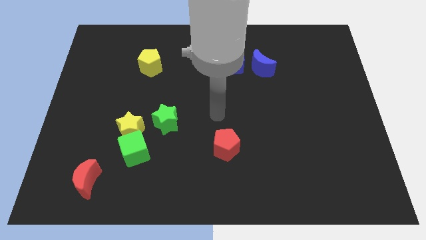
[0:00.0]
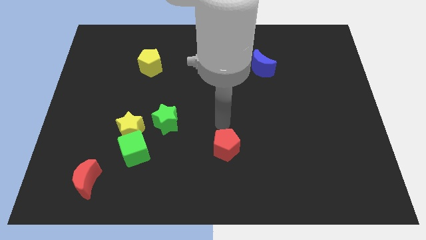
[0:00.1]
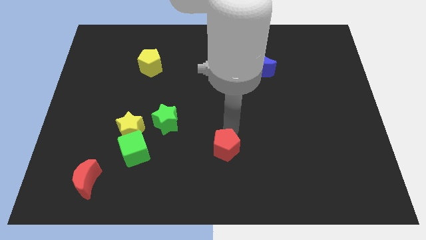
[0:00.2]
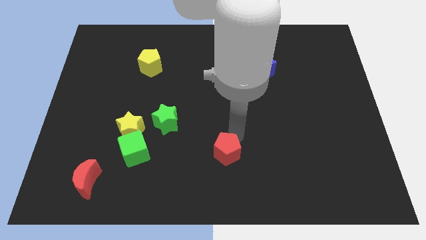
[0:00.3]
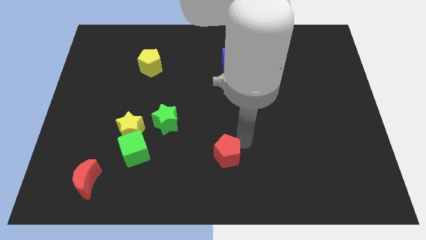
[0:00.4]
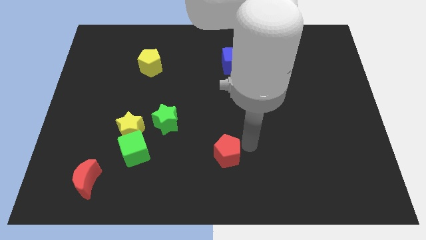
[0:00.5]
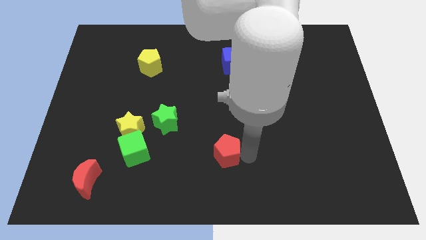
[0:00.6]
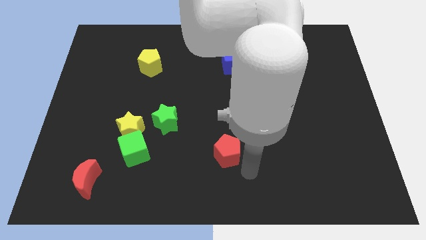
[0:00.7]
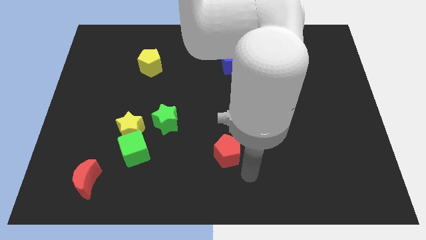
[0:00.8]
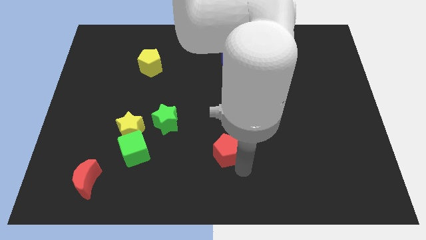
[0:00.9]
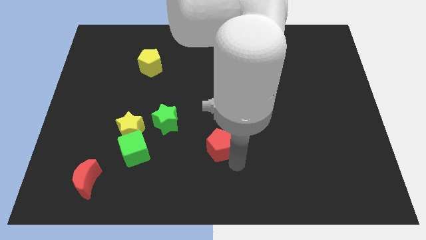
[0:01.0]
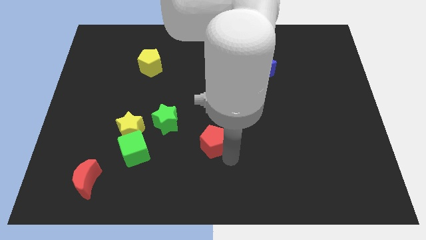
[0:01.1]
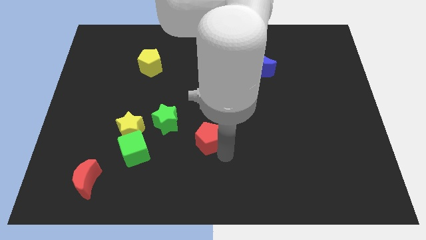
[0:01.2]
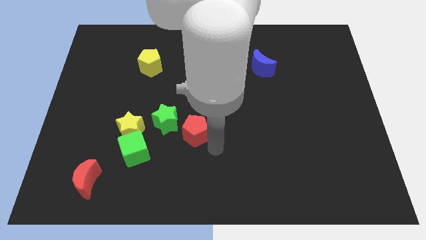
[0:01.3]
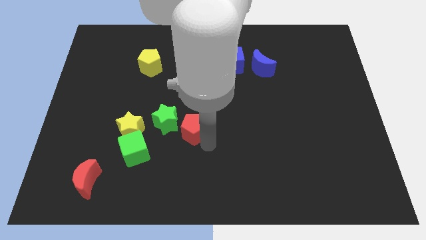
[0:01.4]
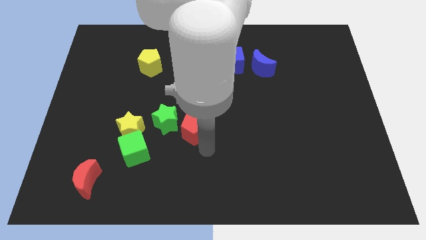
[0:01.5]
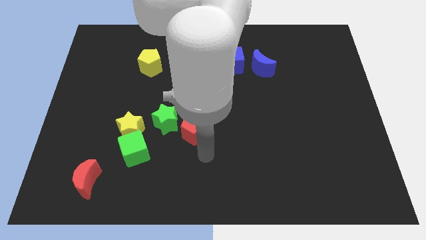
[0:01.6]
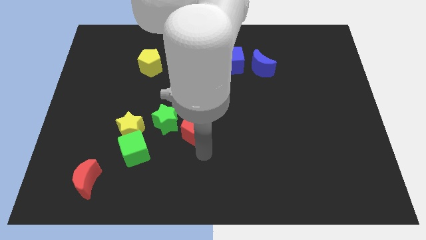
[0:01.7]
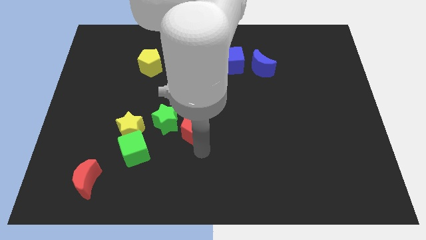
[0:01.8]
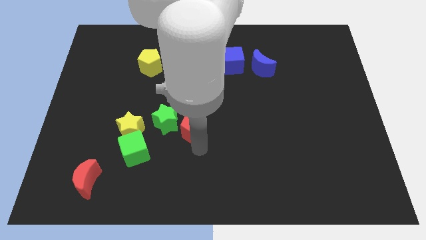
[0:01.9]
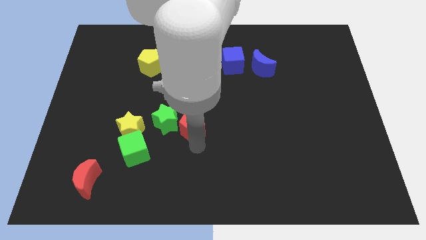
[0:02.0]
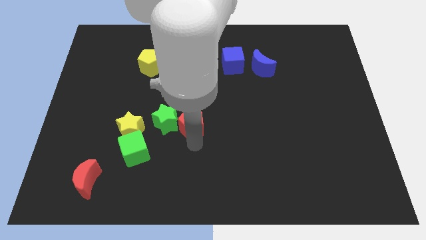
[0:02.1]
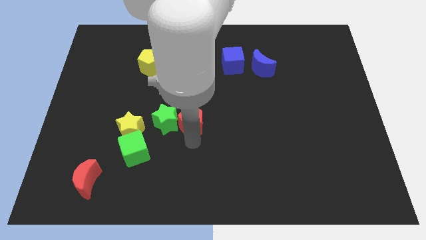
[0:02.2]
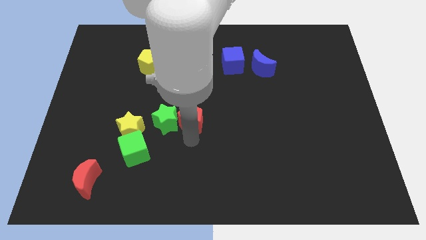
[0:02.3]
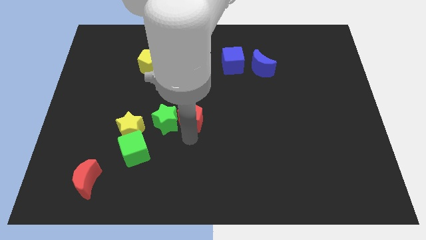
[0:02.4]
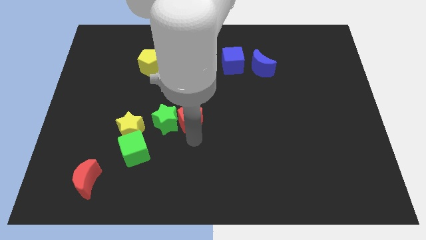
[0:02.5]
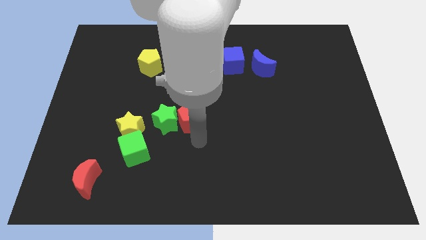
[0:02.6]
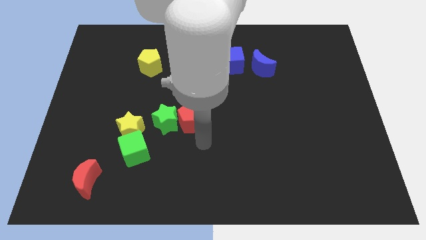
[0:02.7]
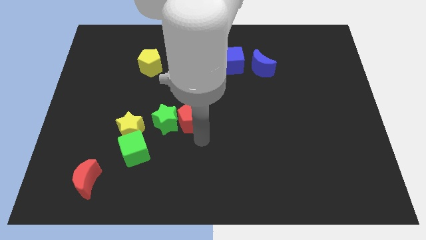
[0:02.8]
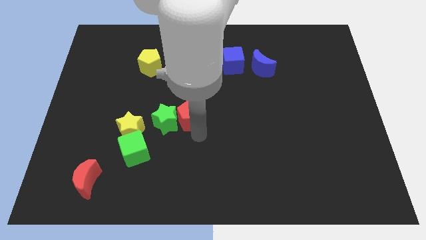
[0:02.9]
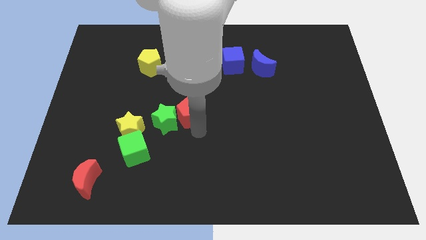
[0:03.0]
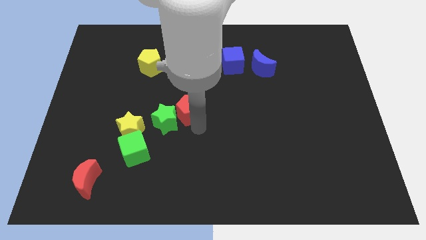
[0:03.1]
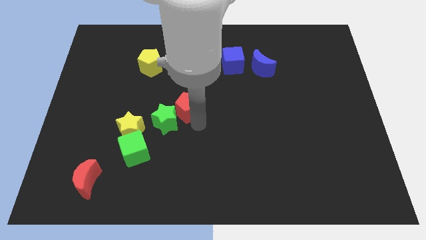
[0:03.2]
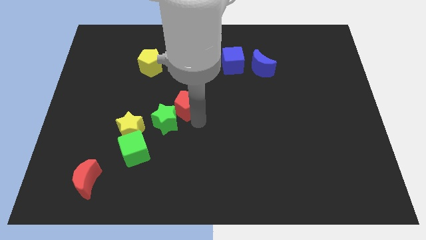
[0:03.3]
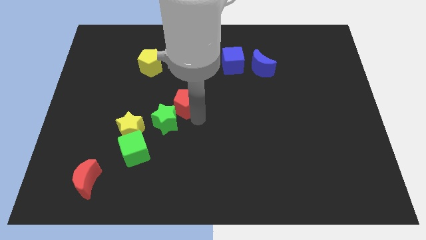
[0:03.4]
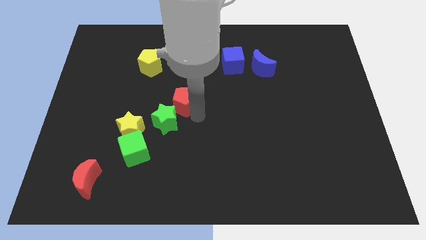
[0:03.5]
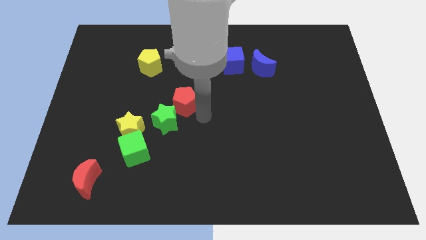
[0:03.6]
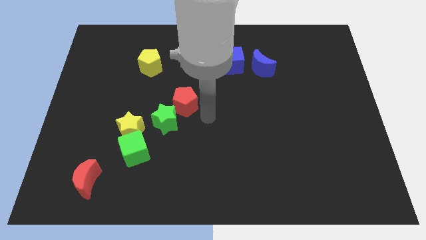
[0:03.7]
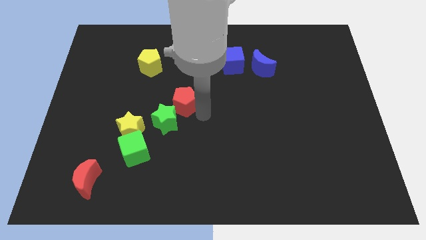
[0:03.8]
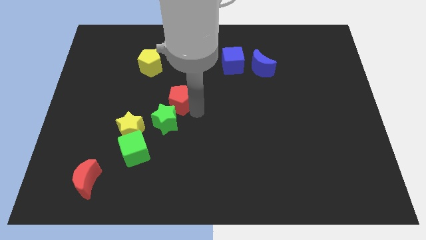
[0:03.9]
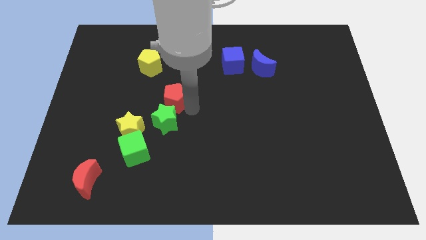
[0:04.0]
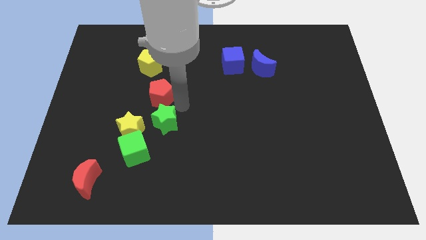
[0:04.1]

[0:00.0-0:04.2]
move the red pentagon up and left diagonally

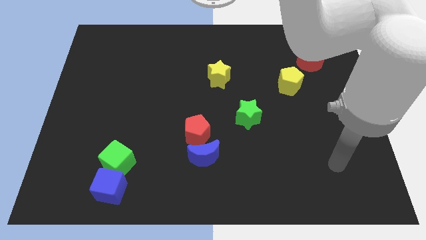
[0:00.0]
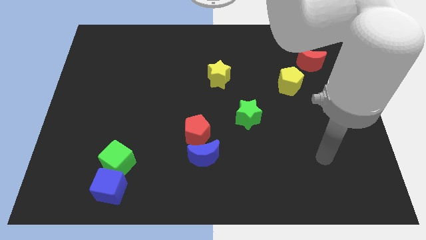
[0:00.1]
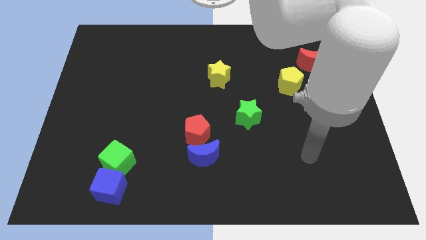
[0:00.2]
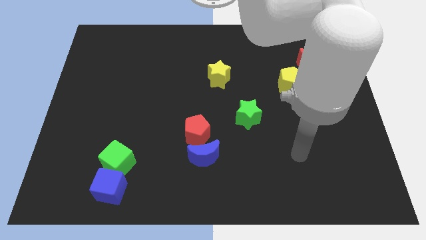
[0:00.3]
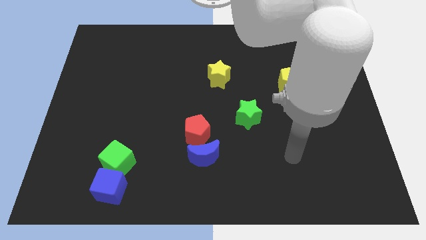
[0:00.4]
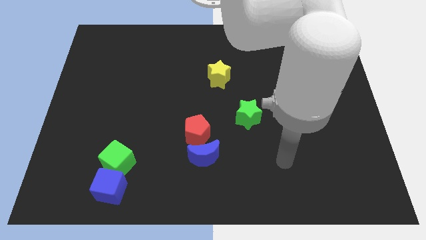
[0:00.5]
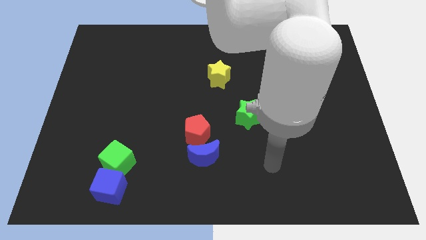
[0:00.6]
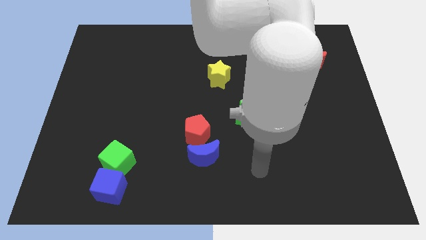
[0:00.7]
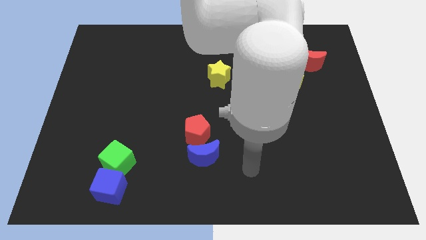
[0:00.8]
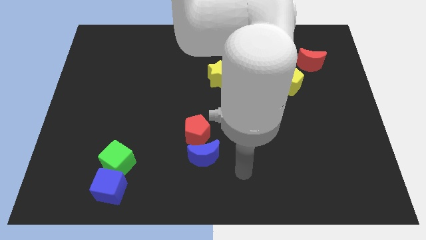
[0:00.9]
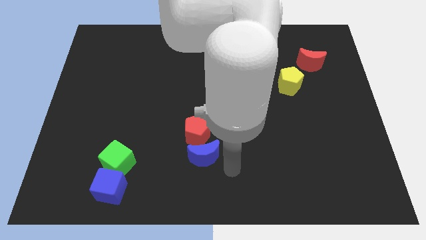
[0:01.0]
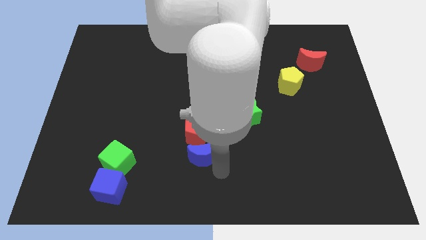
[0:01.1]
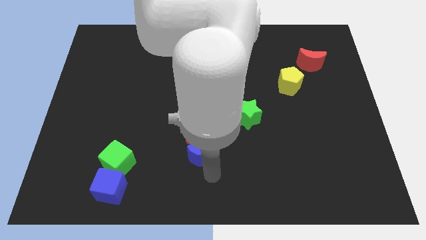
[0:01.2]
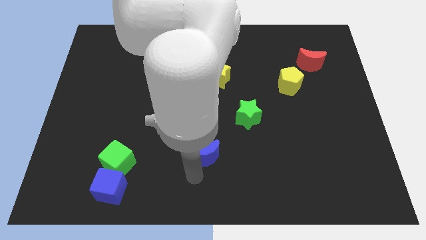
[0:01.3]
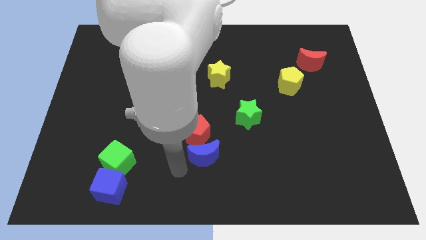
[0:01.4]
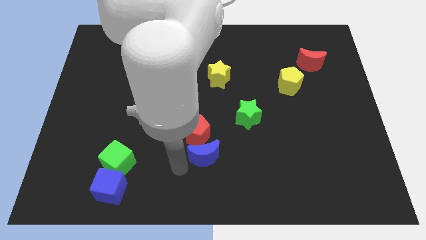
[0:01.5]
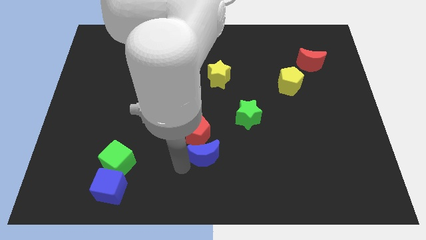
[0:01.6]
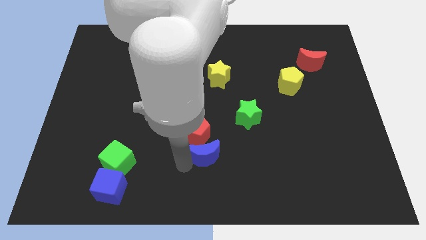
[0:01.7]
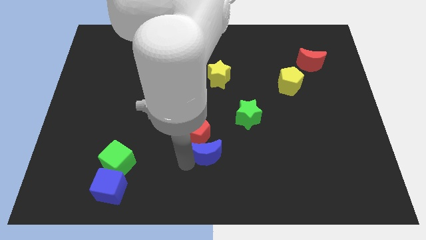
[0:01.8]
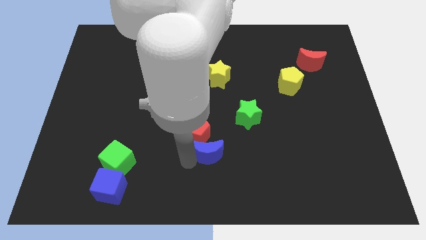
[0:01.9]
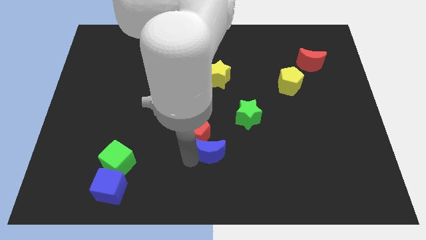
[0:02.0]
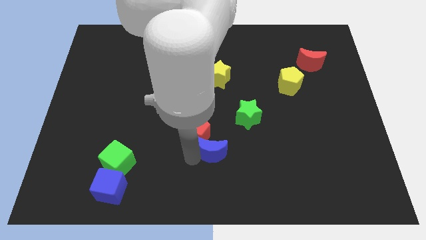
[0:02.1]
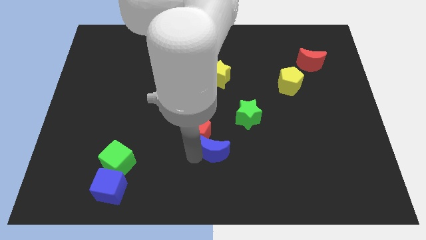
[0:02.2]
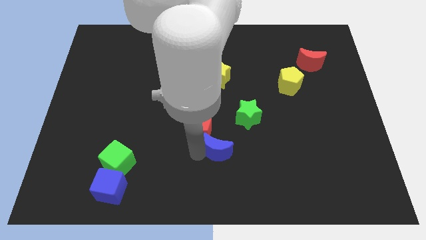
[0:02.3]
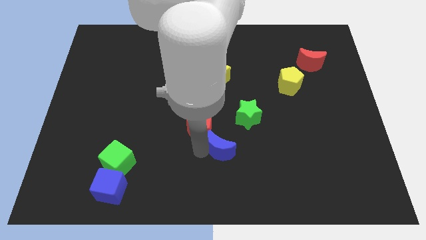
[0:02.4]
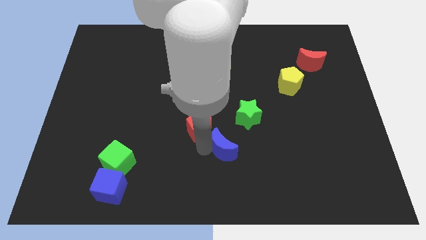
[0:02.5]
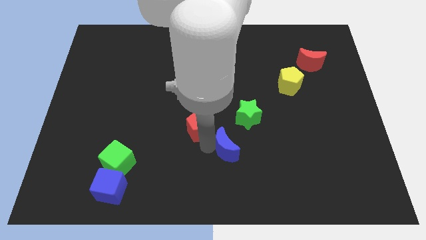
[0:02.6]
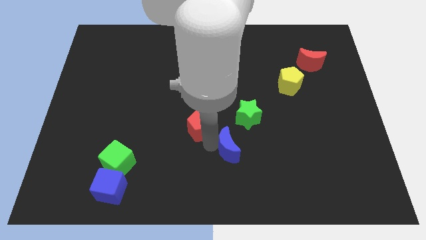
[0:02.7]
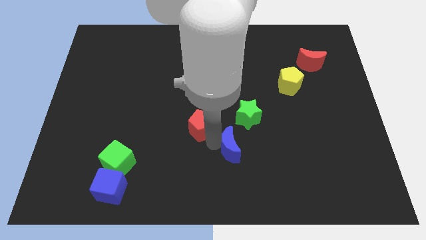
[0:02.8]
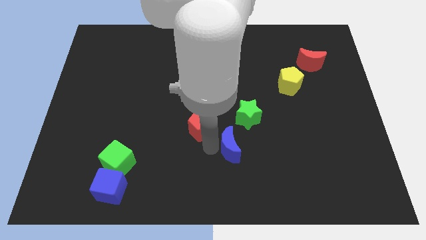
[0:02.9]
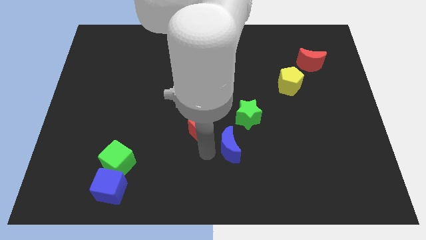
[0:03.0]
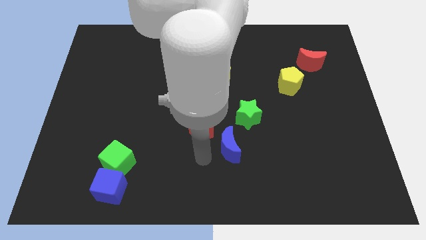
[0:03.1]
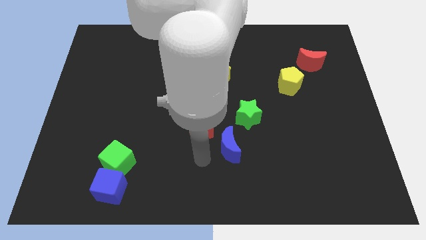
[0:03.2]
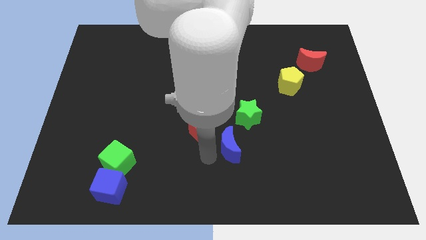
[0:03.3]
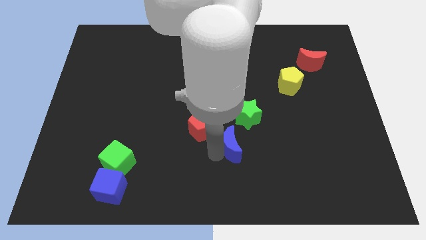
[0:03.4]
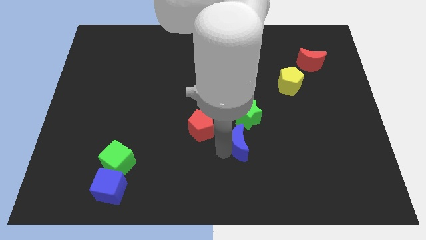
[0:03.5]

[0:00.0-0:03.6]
push the blue moon upwards and then right a little bit

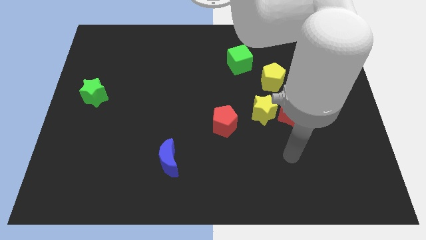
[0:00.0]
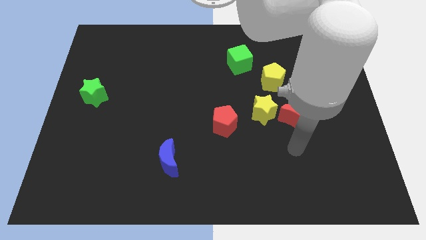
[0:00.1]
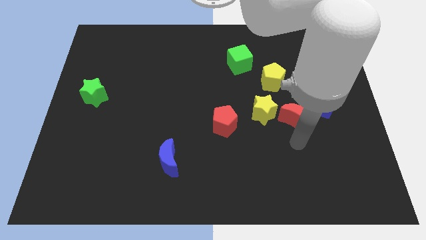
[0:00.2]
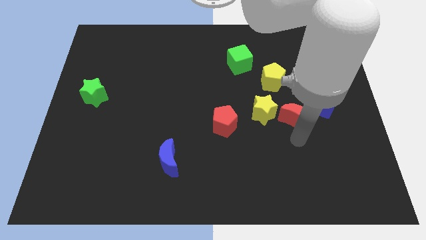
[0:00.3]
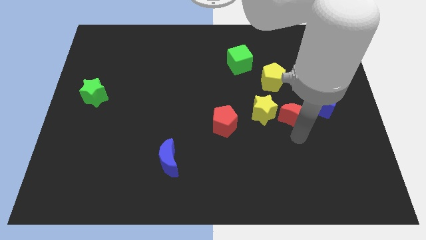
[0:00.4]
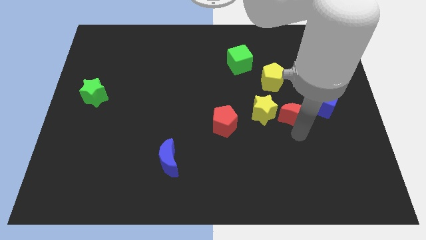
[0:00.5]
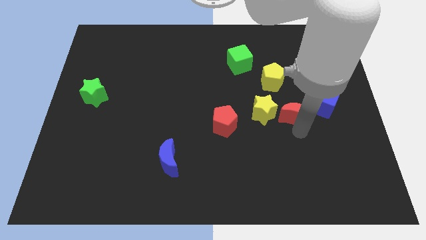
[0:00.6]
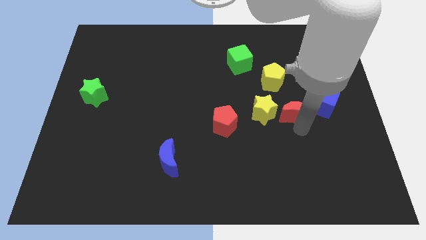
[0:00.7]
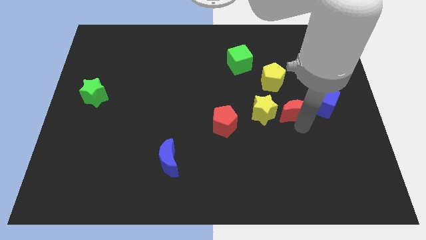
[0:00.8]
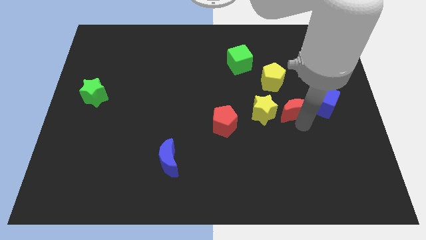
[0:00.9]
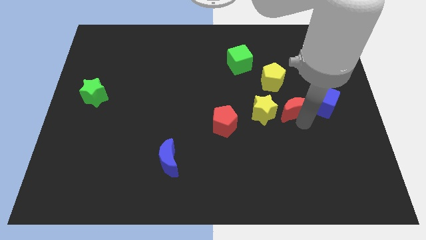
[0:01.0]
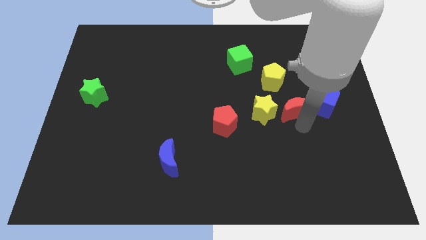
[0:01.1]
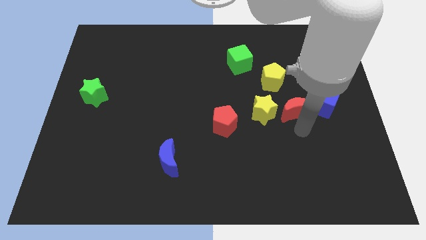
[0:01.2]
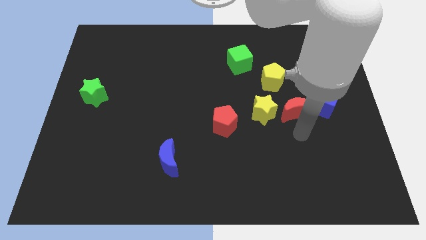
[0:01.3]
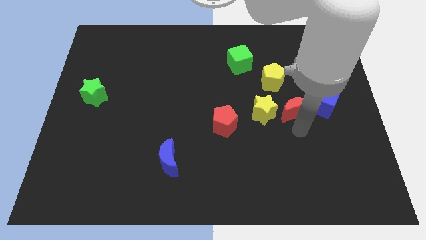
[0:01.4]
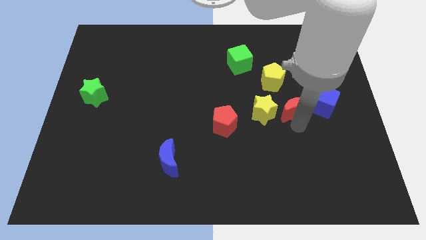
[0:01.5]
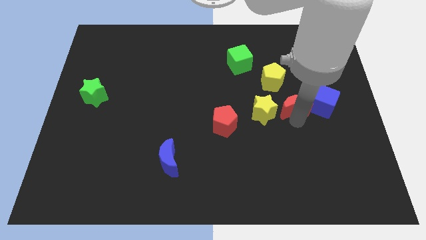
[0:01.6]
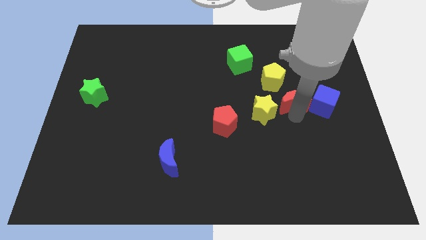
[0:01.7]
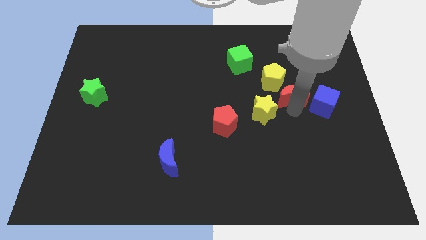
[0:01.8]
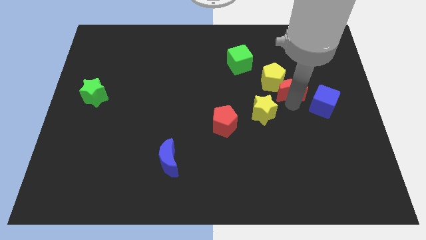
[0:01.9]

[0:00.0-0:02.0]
move the red moon up a little
